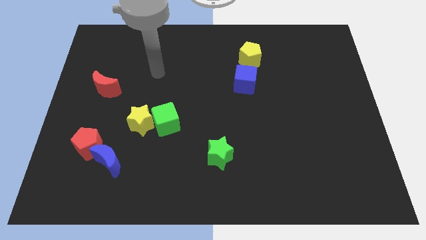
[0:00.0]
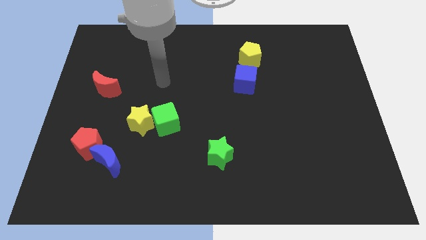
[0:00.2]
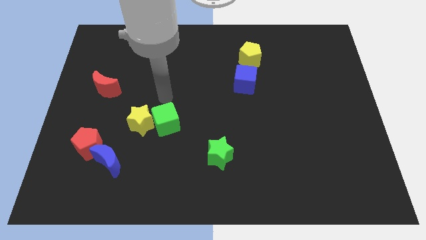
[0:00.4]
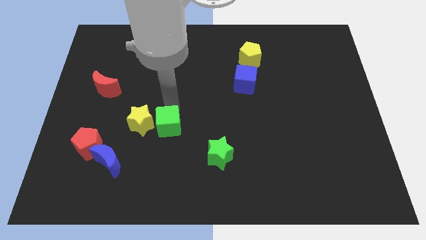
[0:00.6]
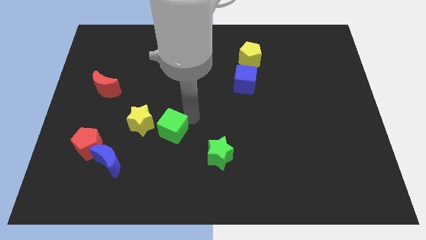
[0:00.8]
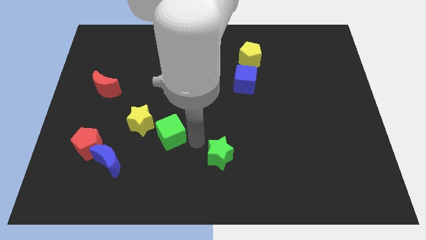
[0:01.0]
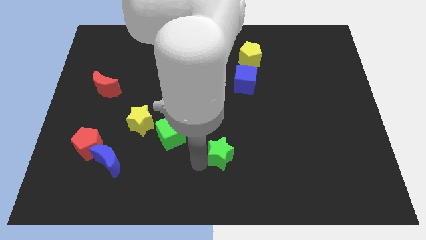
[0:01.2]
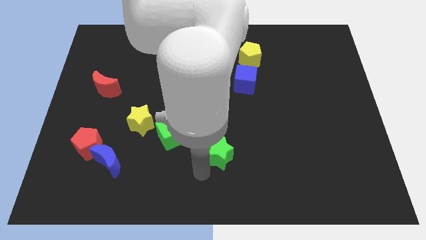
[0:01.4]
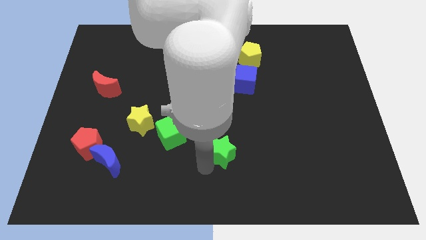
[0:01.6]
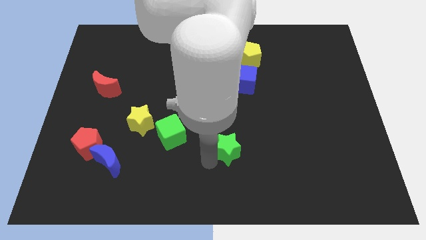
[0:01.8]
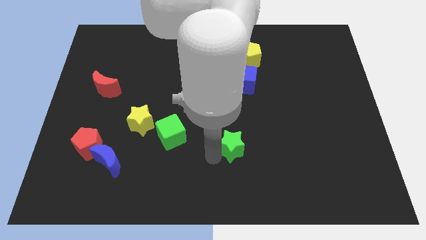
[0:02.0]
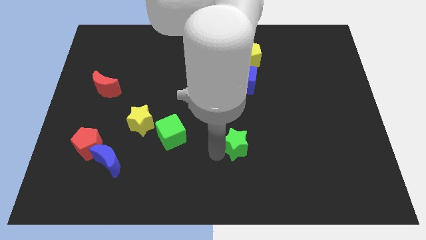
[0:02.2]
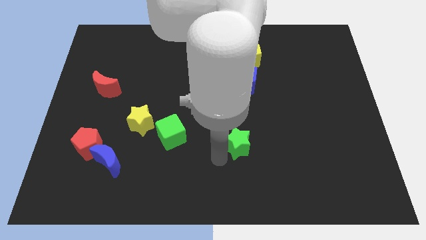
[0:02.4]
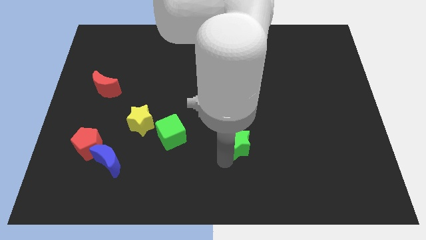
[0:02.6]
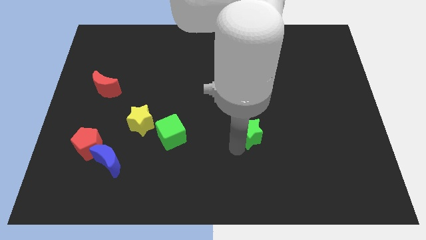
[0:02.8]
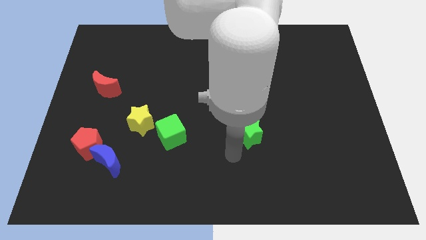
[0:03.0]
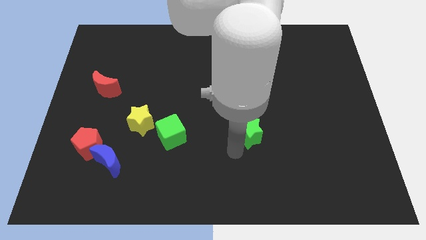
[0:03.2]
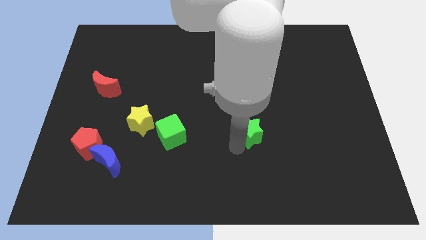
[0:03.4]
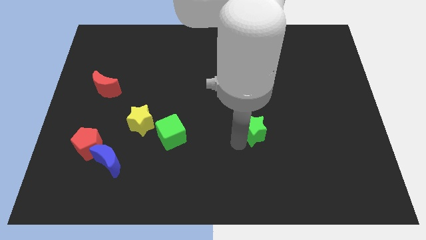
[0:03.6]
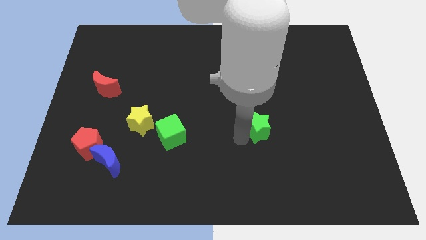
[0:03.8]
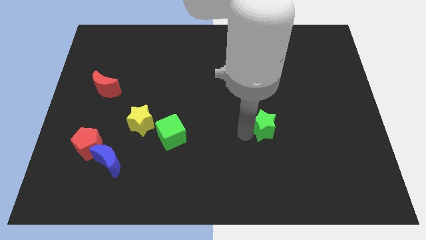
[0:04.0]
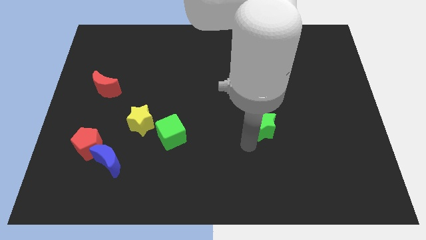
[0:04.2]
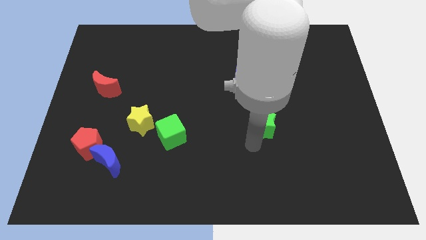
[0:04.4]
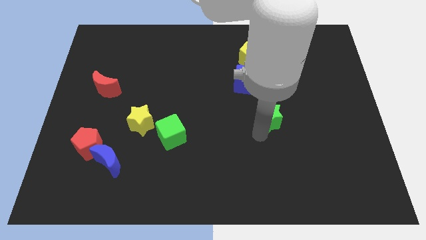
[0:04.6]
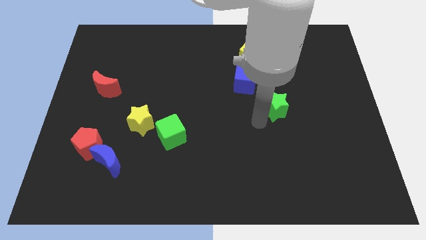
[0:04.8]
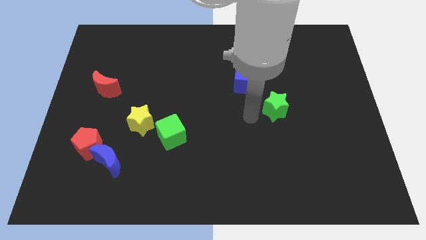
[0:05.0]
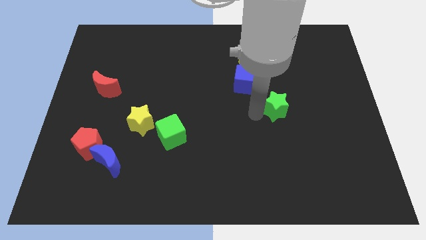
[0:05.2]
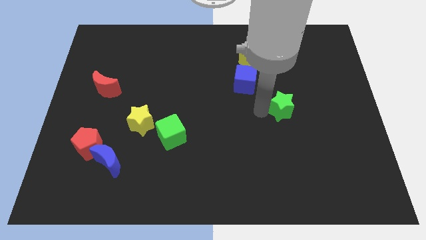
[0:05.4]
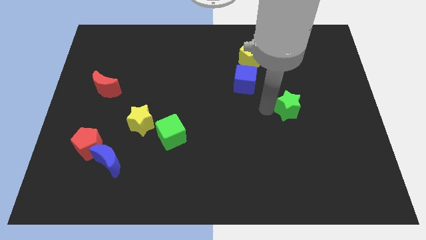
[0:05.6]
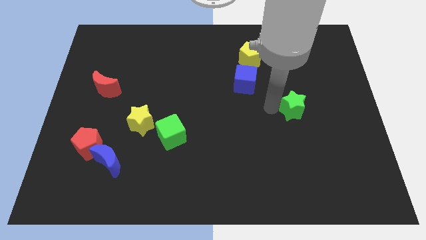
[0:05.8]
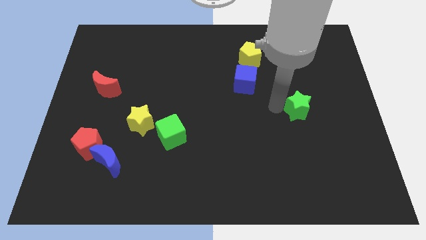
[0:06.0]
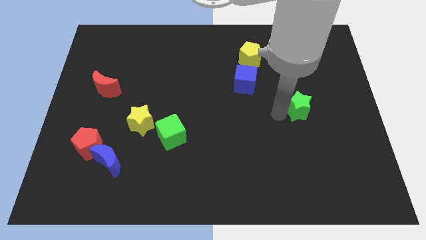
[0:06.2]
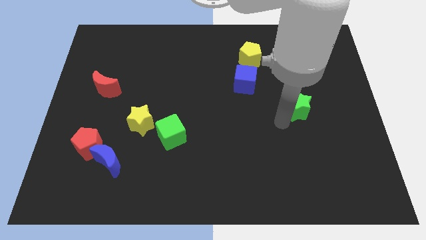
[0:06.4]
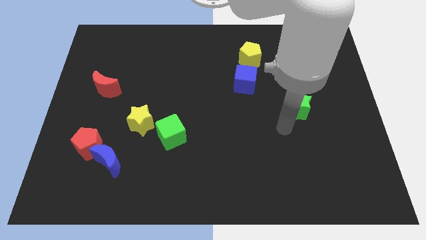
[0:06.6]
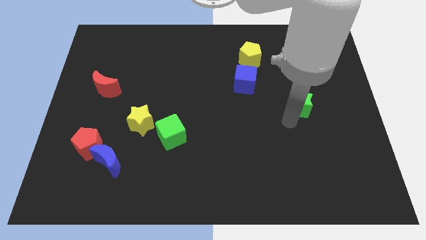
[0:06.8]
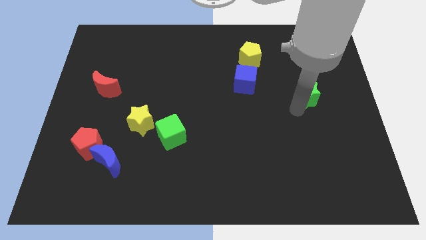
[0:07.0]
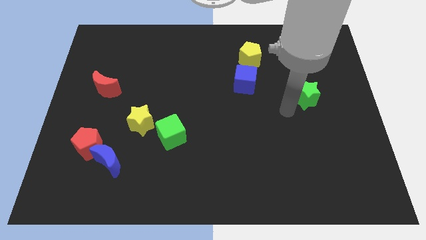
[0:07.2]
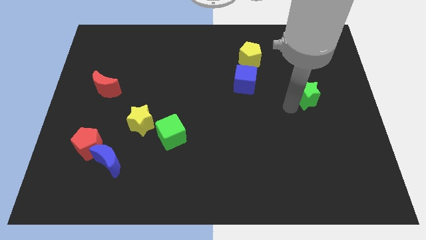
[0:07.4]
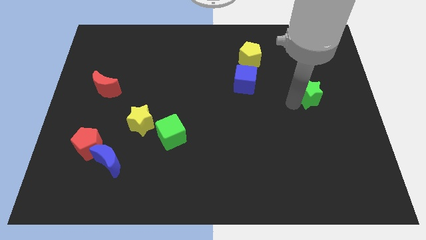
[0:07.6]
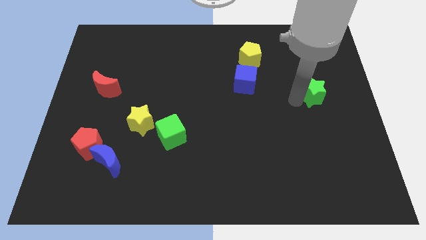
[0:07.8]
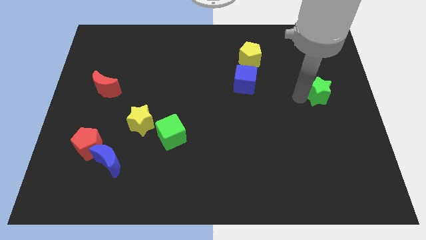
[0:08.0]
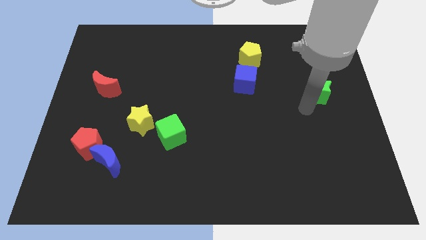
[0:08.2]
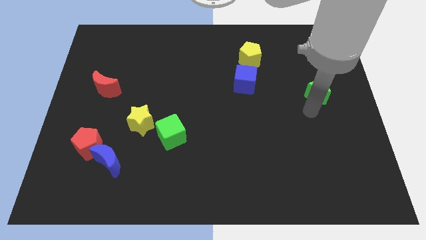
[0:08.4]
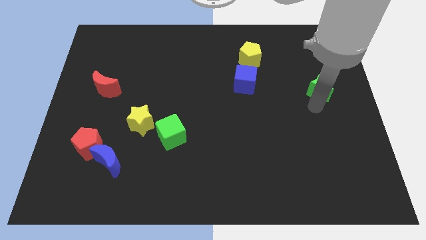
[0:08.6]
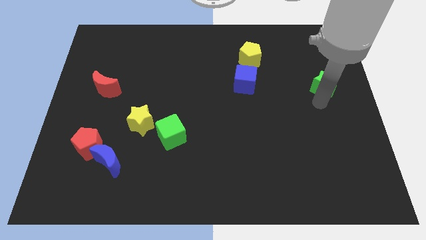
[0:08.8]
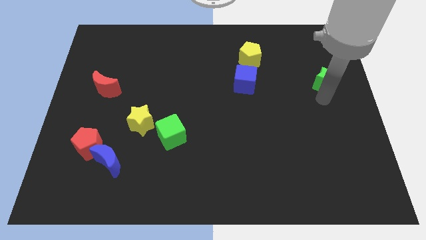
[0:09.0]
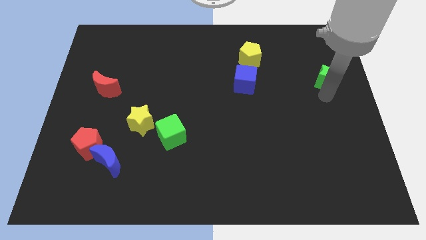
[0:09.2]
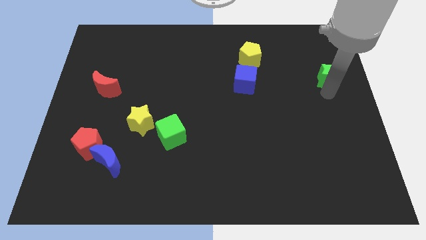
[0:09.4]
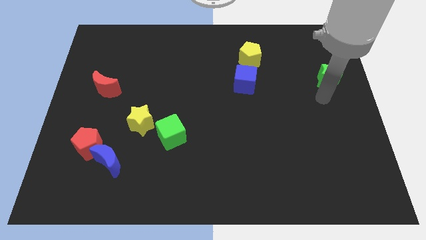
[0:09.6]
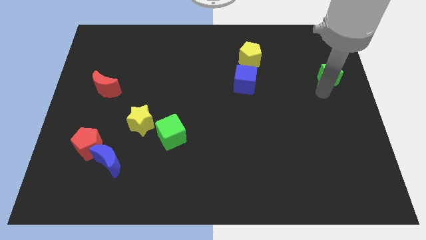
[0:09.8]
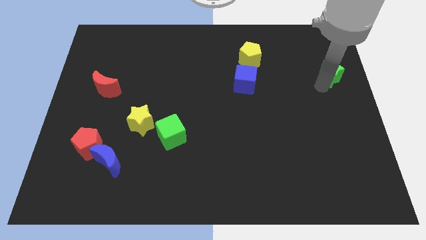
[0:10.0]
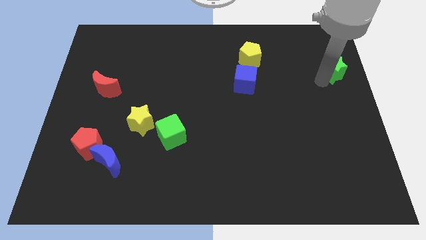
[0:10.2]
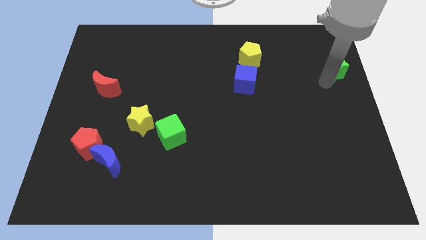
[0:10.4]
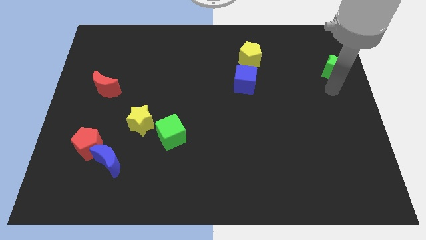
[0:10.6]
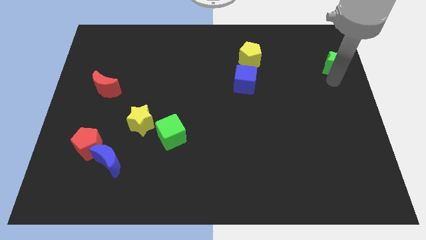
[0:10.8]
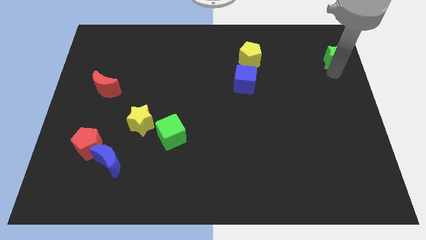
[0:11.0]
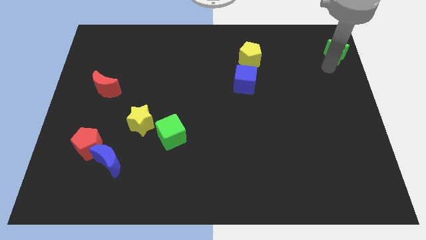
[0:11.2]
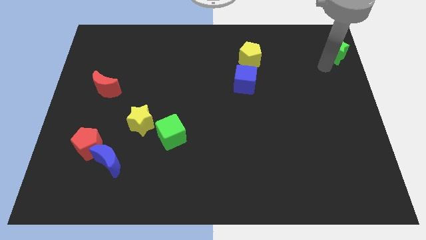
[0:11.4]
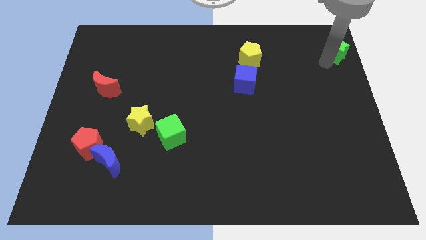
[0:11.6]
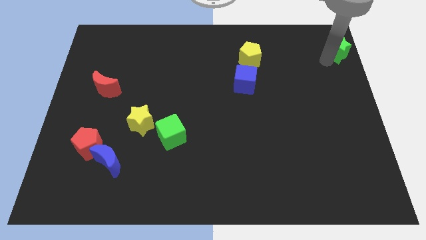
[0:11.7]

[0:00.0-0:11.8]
put the green star to the top right of the board
